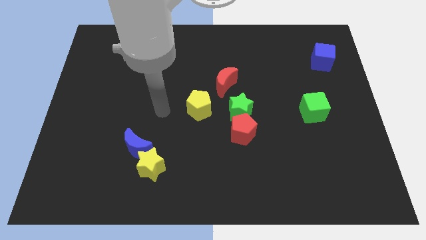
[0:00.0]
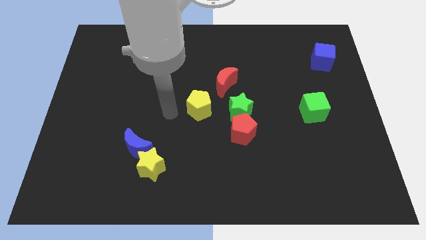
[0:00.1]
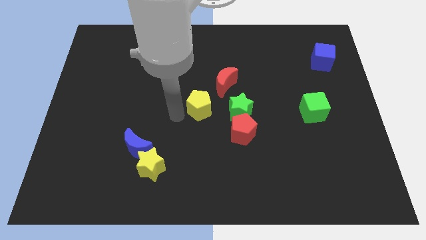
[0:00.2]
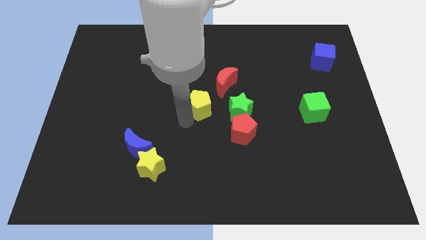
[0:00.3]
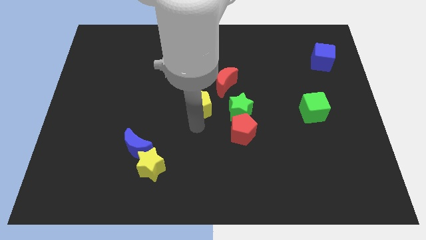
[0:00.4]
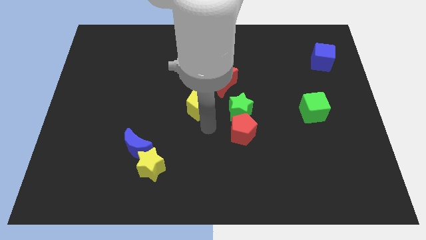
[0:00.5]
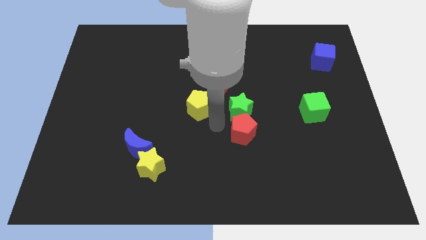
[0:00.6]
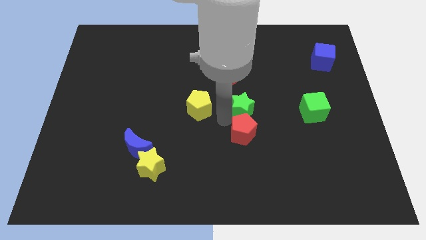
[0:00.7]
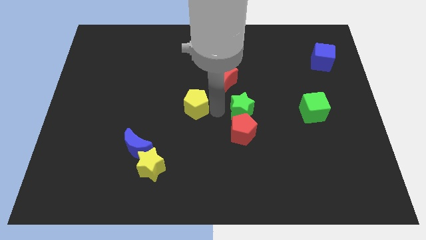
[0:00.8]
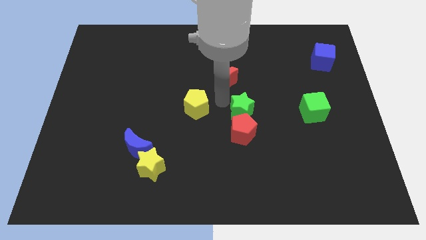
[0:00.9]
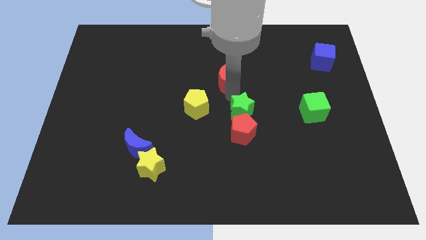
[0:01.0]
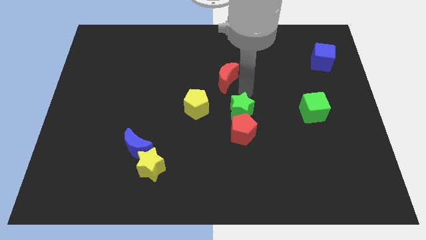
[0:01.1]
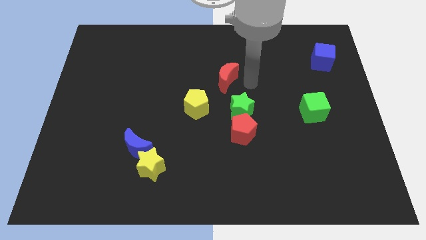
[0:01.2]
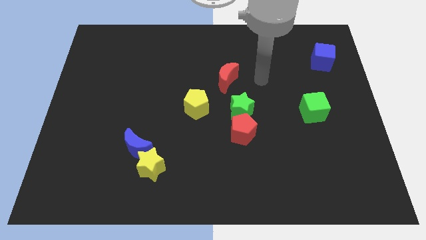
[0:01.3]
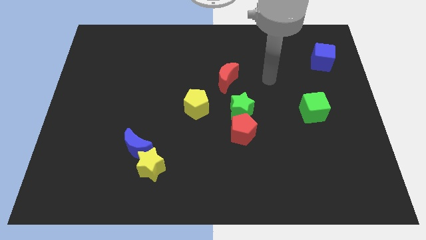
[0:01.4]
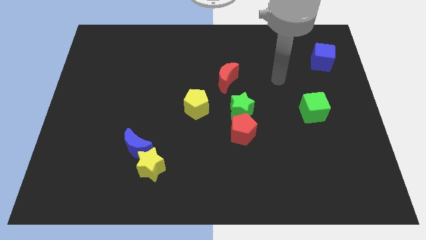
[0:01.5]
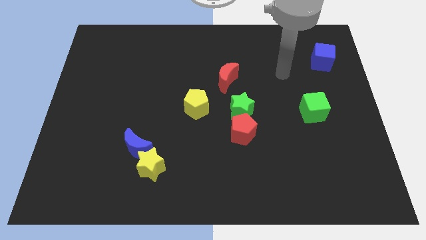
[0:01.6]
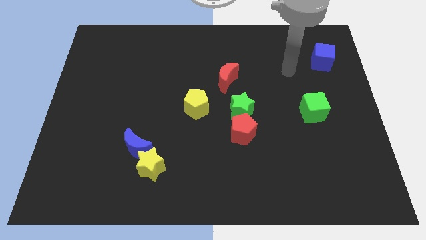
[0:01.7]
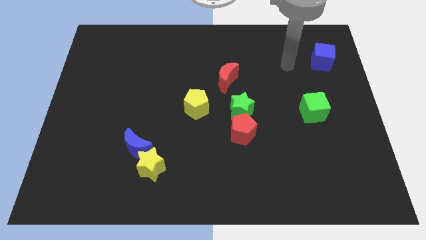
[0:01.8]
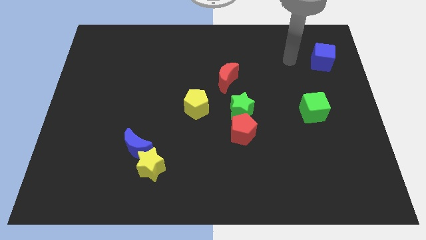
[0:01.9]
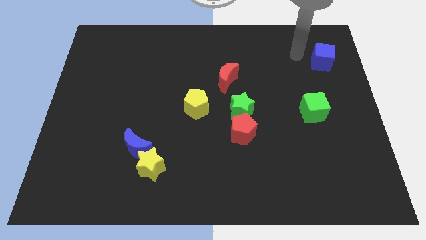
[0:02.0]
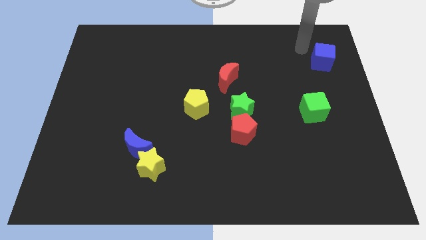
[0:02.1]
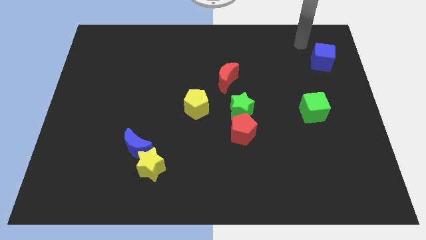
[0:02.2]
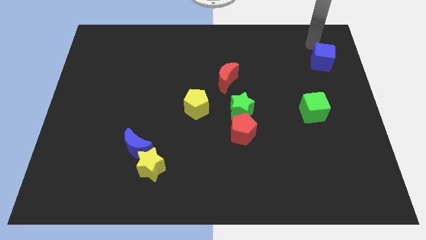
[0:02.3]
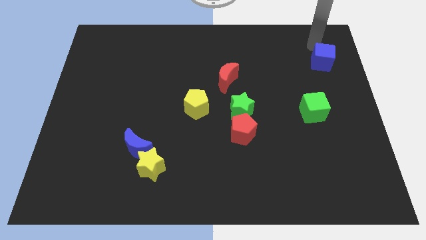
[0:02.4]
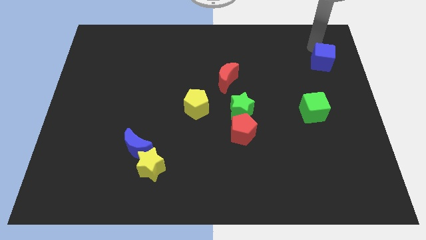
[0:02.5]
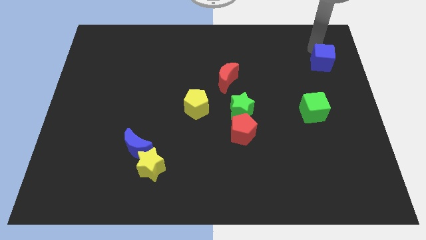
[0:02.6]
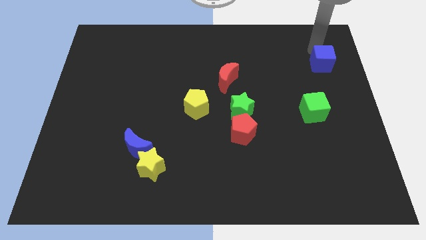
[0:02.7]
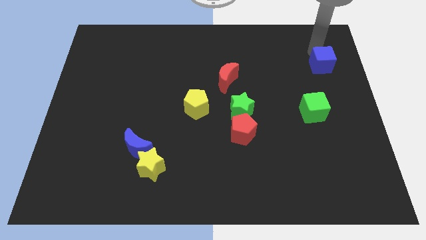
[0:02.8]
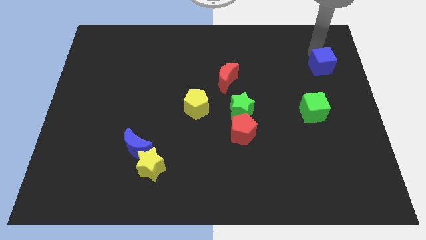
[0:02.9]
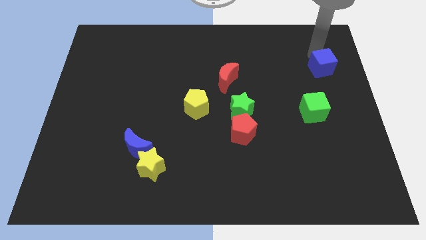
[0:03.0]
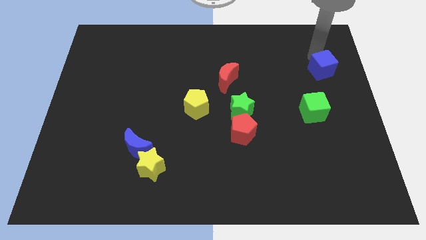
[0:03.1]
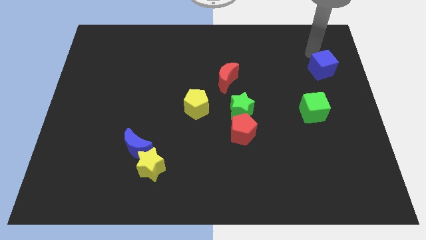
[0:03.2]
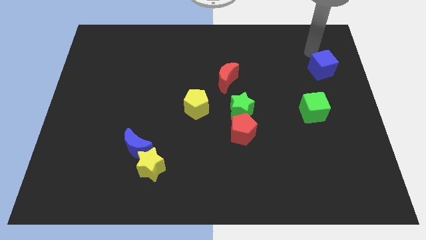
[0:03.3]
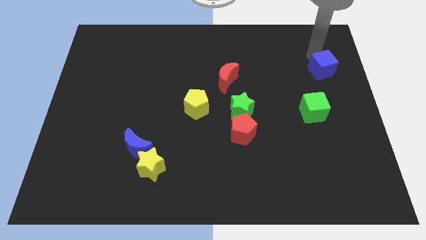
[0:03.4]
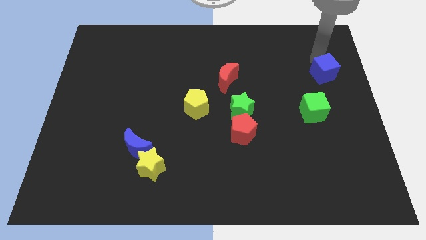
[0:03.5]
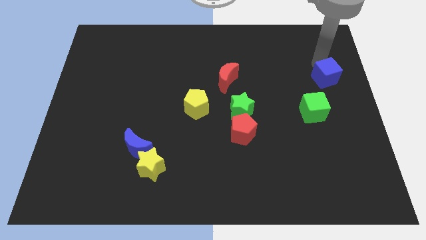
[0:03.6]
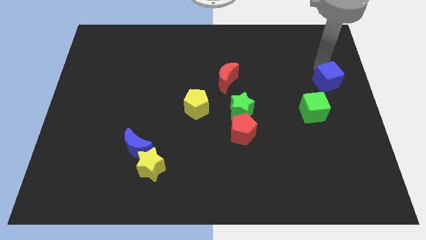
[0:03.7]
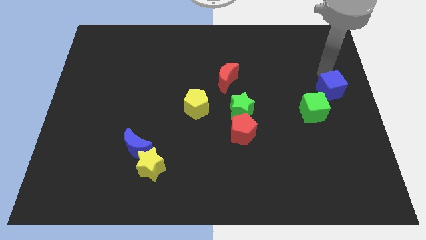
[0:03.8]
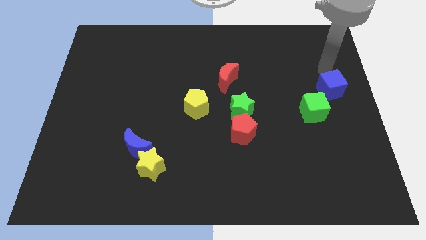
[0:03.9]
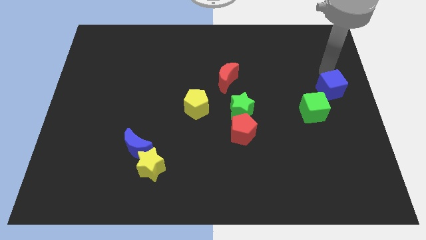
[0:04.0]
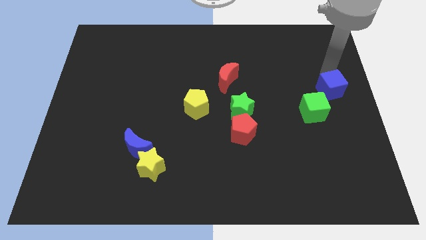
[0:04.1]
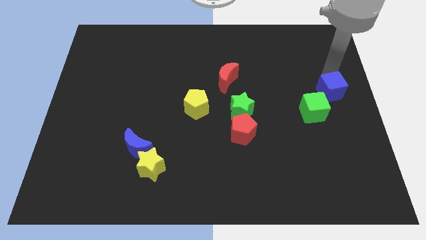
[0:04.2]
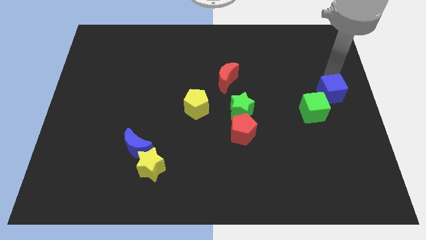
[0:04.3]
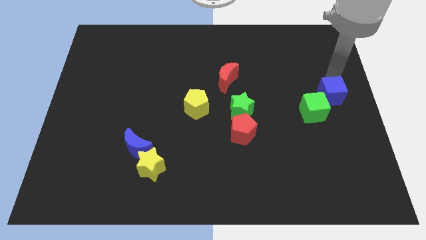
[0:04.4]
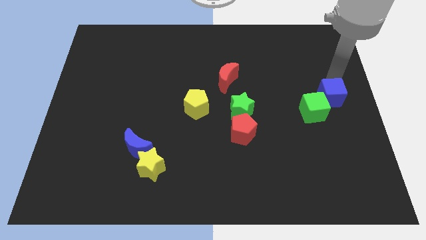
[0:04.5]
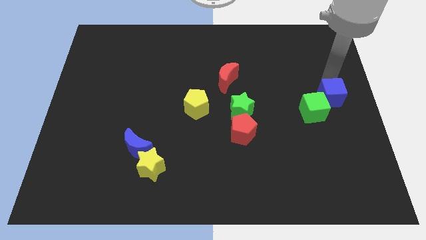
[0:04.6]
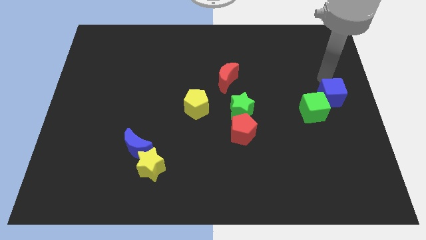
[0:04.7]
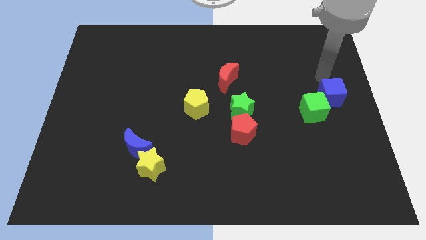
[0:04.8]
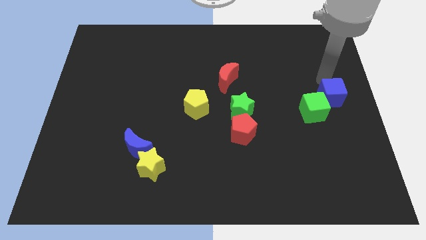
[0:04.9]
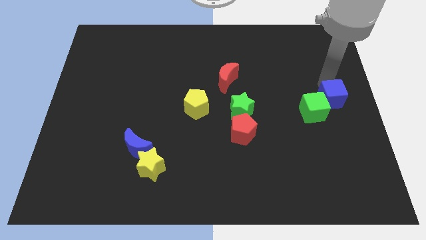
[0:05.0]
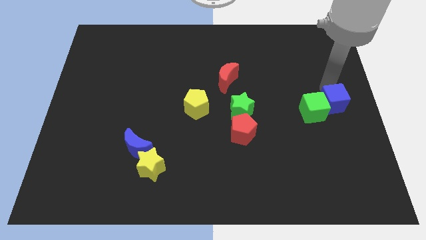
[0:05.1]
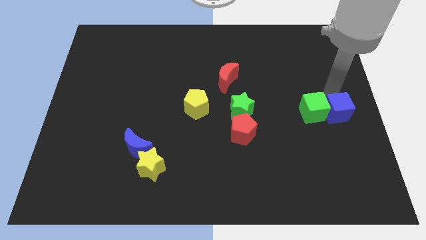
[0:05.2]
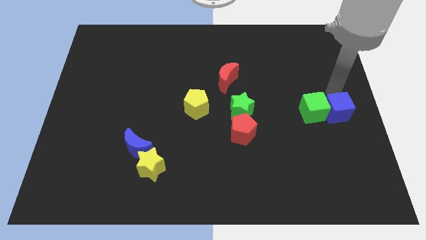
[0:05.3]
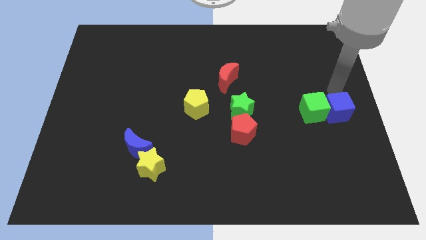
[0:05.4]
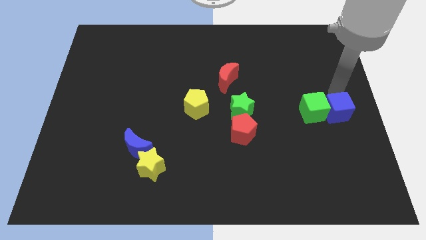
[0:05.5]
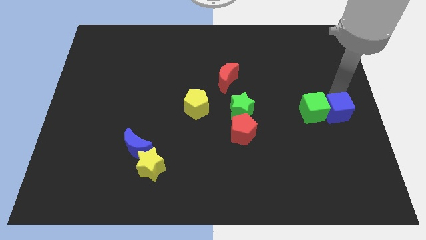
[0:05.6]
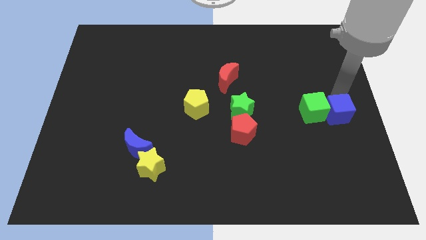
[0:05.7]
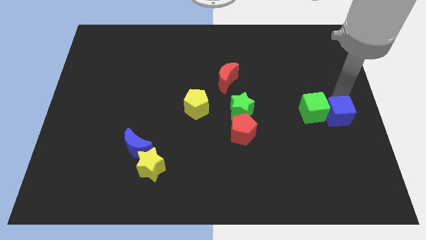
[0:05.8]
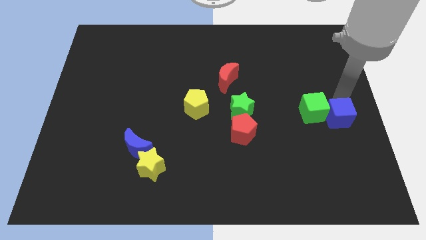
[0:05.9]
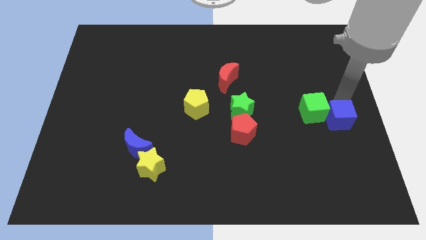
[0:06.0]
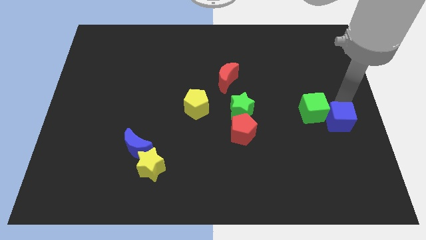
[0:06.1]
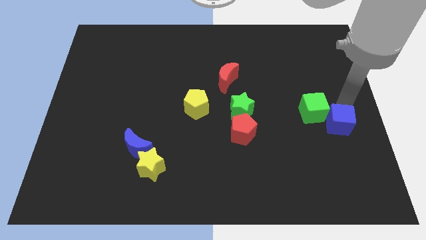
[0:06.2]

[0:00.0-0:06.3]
move the blue cube down

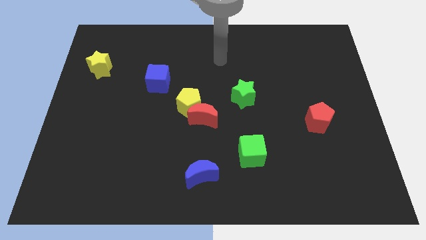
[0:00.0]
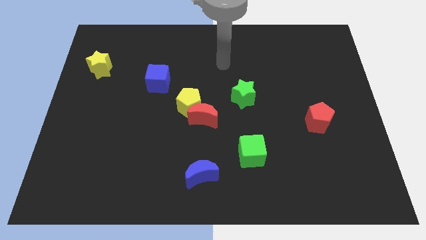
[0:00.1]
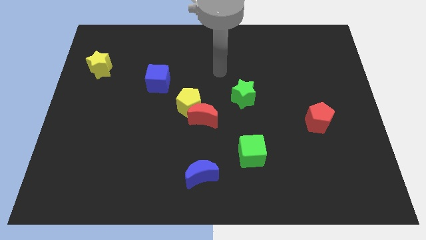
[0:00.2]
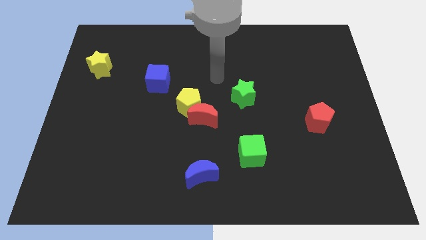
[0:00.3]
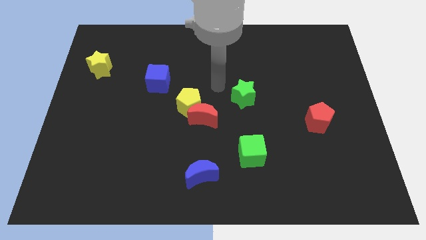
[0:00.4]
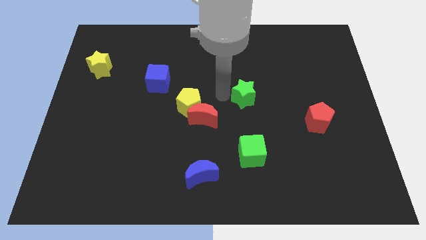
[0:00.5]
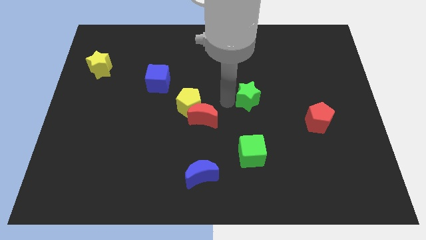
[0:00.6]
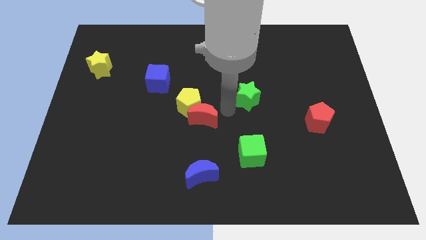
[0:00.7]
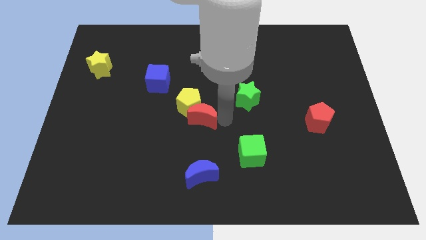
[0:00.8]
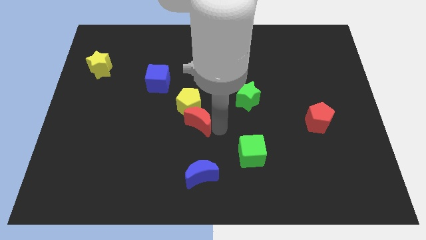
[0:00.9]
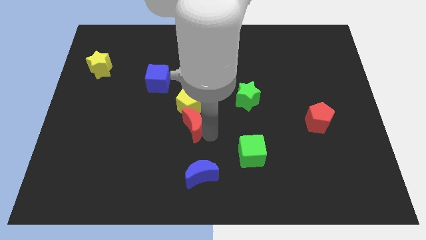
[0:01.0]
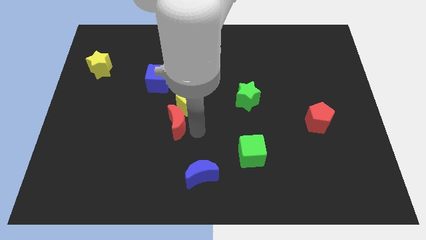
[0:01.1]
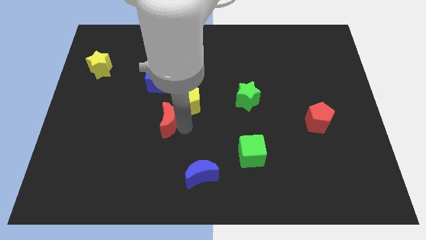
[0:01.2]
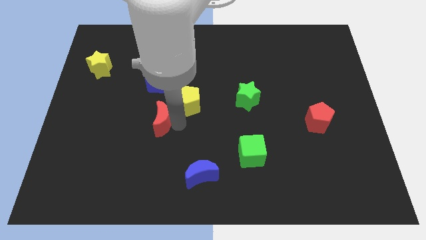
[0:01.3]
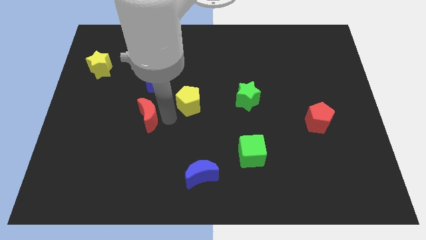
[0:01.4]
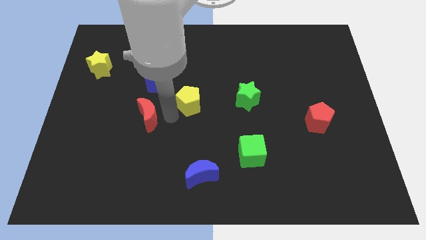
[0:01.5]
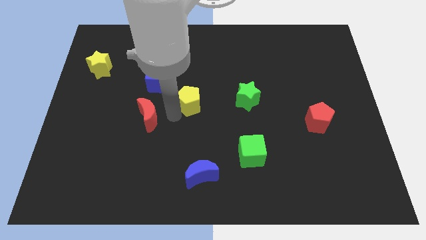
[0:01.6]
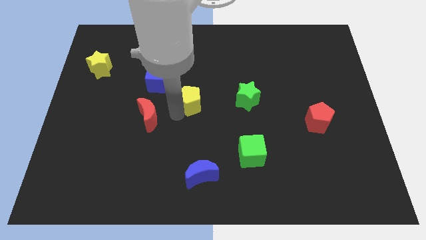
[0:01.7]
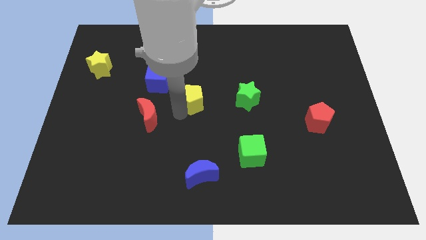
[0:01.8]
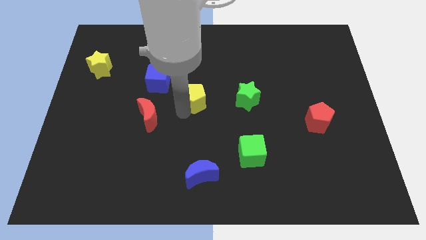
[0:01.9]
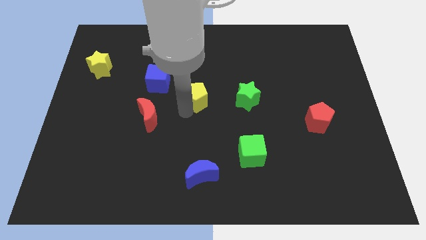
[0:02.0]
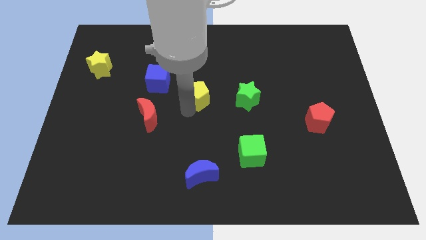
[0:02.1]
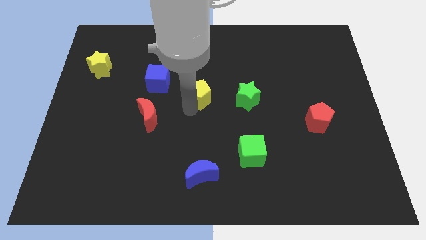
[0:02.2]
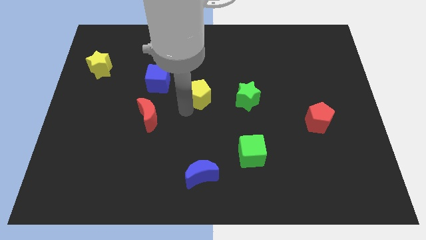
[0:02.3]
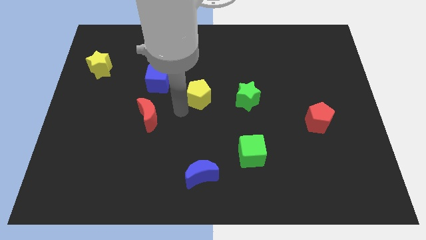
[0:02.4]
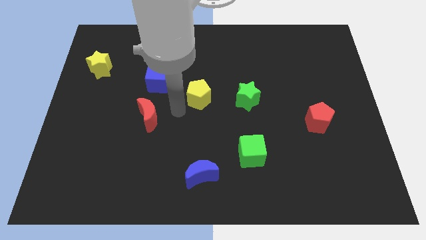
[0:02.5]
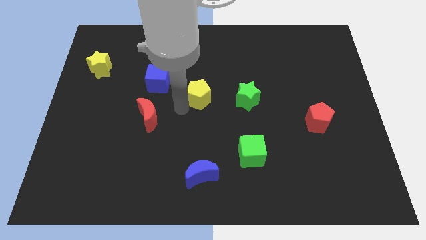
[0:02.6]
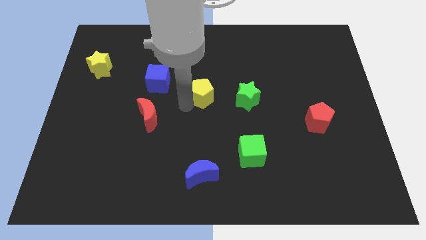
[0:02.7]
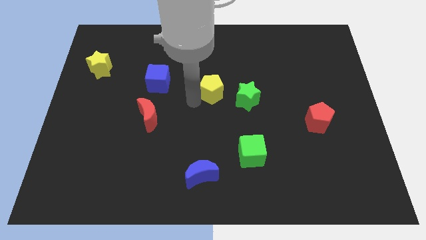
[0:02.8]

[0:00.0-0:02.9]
slightly push the yellow pentagon upwards and to the right diagonally
